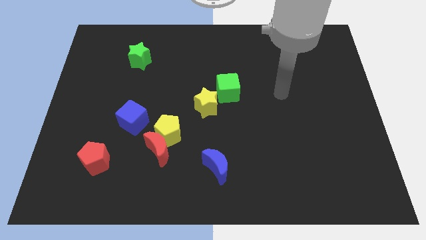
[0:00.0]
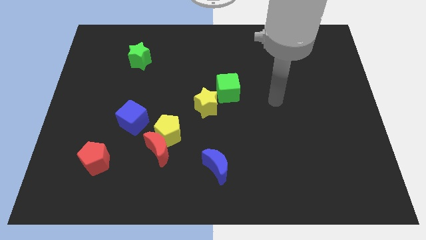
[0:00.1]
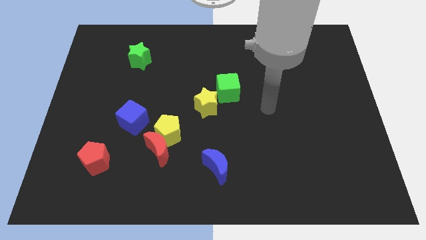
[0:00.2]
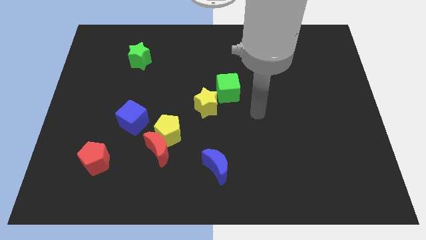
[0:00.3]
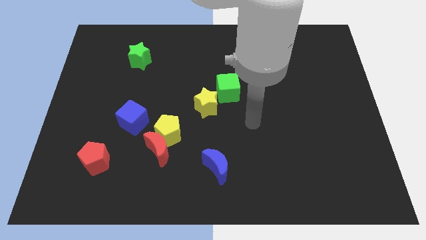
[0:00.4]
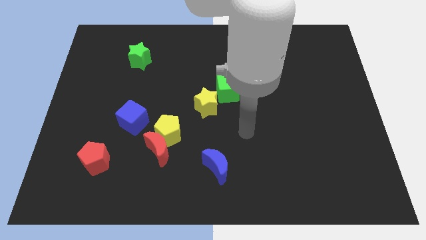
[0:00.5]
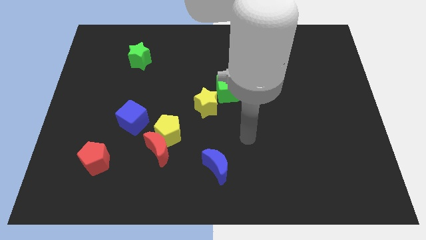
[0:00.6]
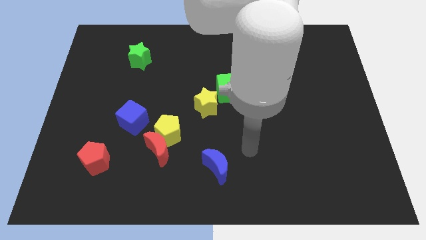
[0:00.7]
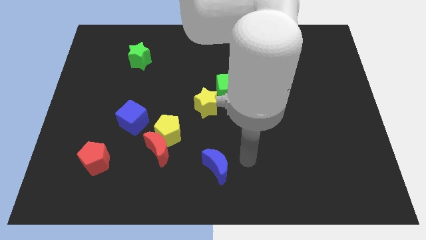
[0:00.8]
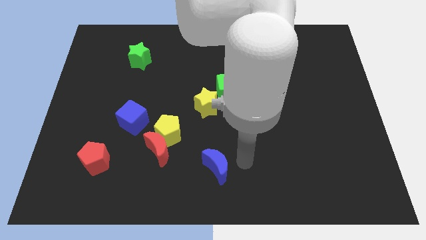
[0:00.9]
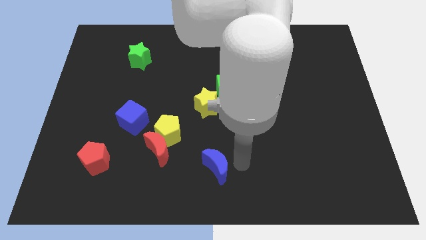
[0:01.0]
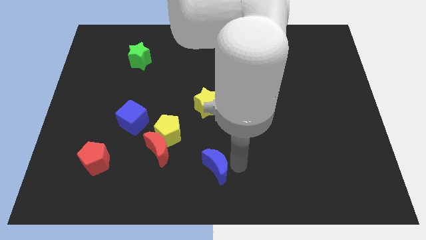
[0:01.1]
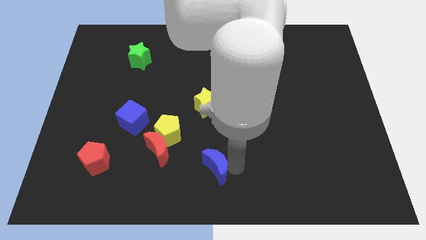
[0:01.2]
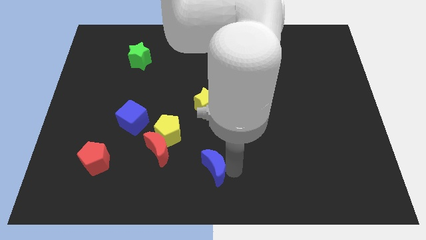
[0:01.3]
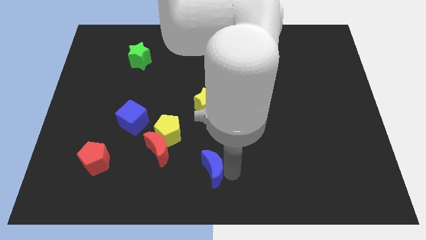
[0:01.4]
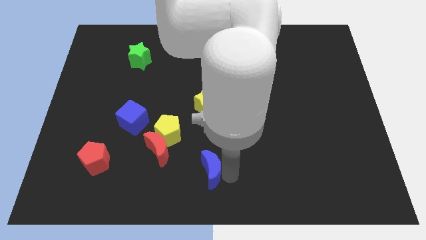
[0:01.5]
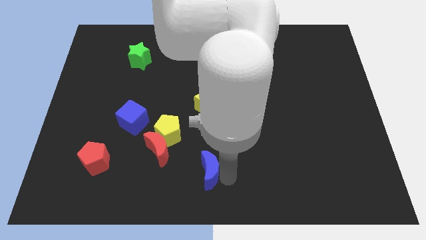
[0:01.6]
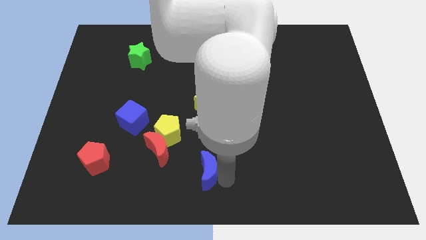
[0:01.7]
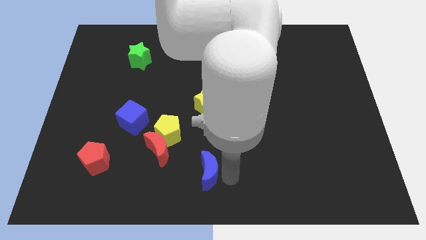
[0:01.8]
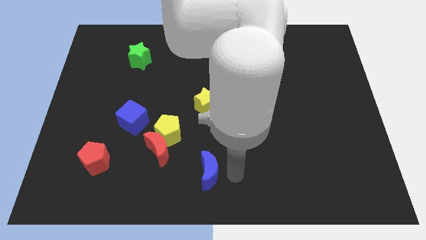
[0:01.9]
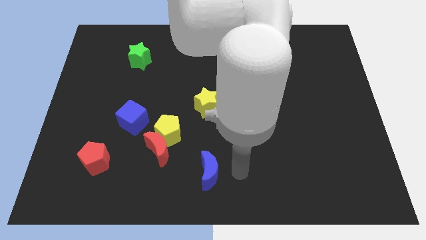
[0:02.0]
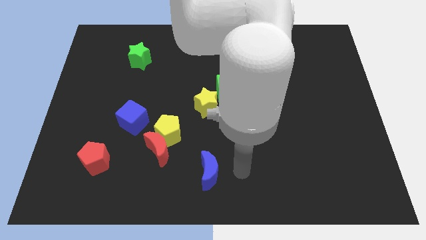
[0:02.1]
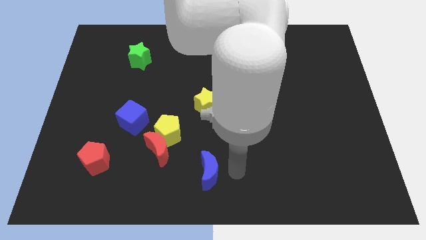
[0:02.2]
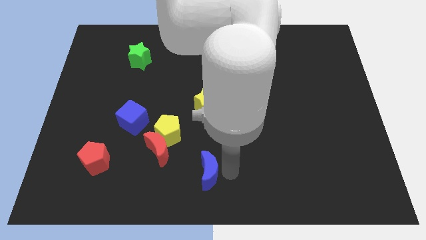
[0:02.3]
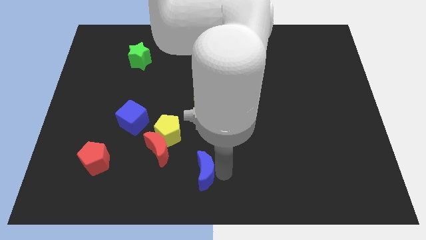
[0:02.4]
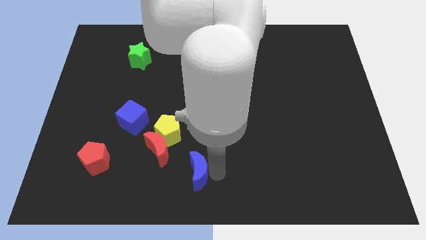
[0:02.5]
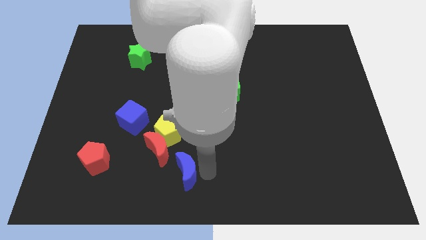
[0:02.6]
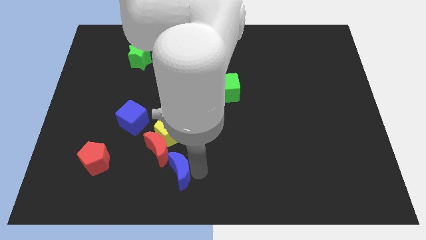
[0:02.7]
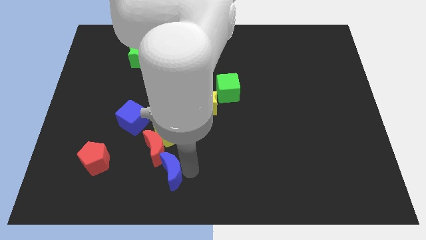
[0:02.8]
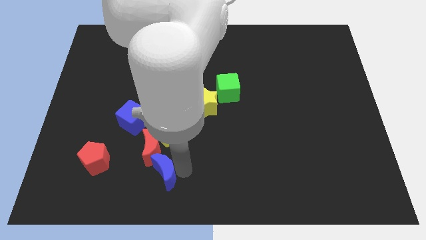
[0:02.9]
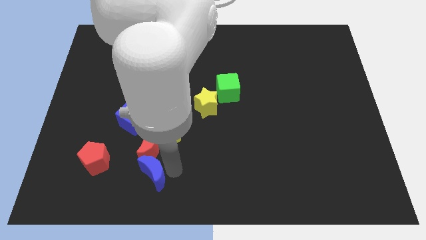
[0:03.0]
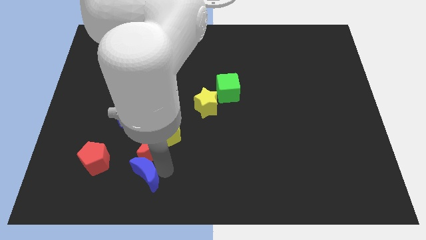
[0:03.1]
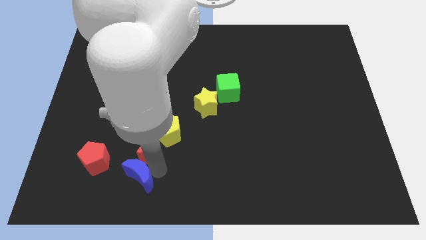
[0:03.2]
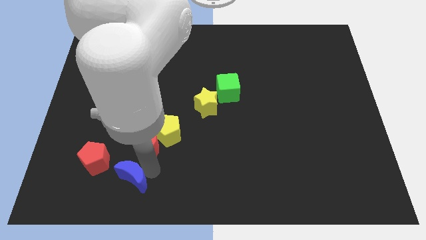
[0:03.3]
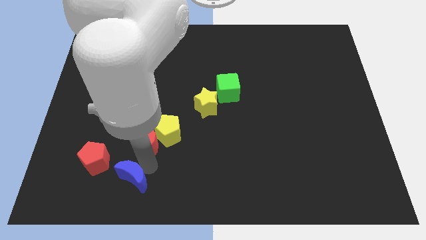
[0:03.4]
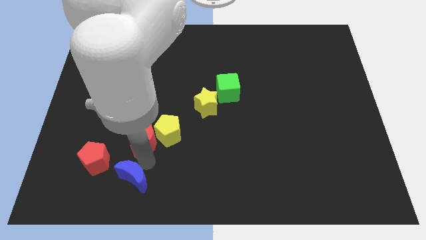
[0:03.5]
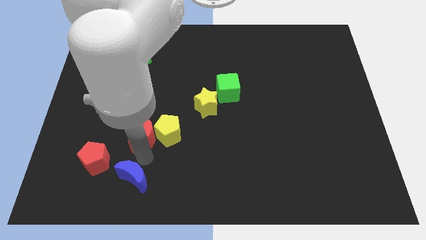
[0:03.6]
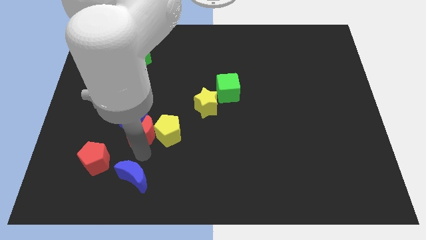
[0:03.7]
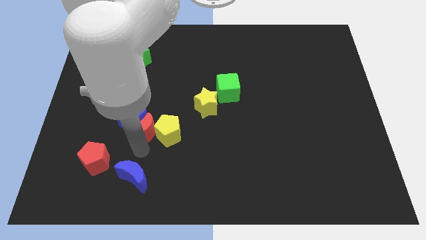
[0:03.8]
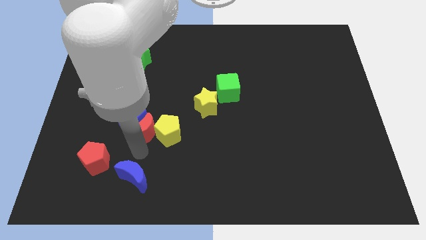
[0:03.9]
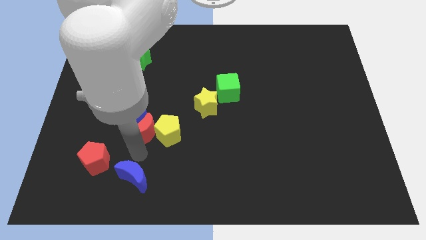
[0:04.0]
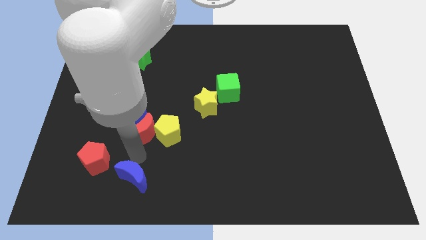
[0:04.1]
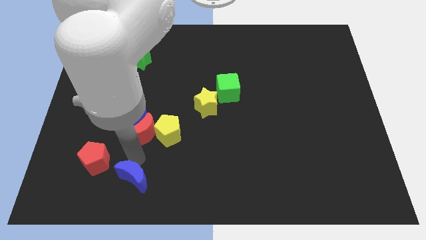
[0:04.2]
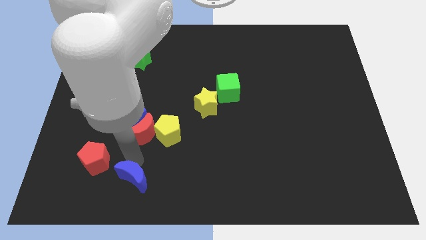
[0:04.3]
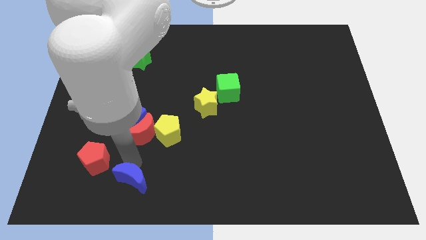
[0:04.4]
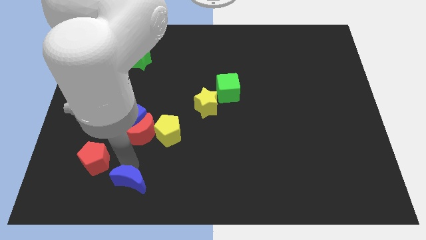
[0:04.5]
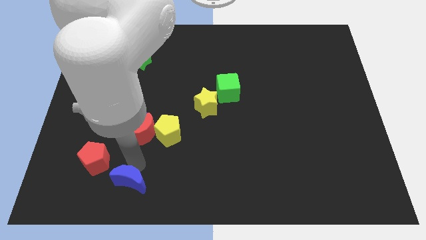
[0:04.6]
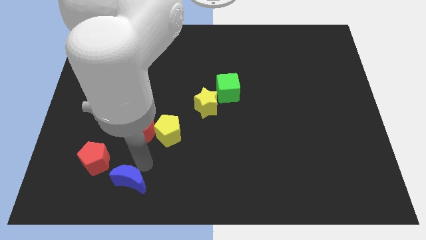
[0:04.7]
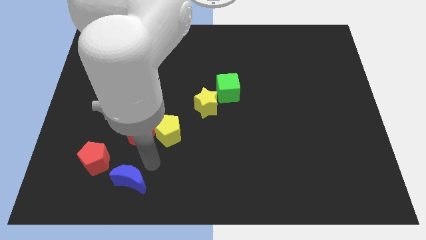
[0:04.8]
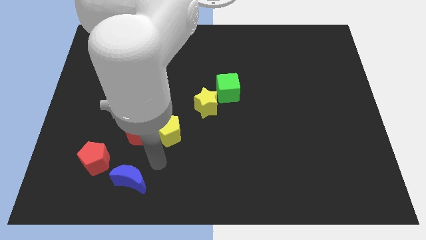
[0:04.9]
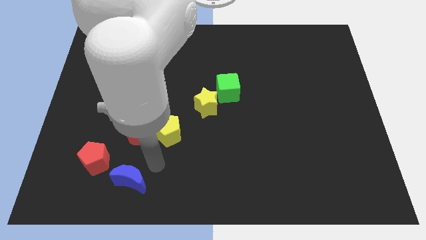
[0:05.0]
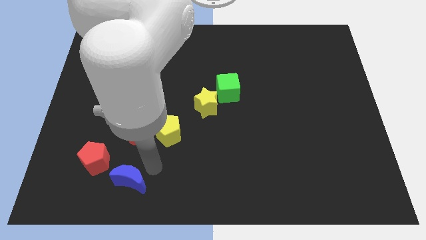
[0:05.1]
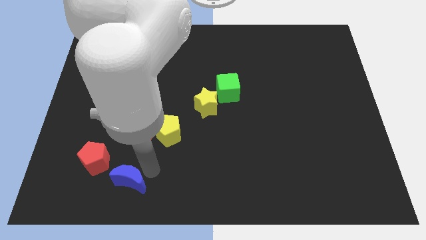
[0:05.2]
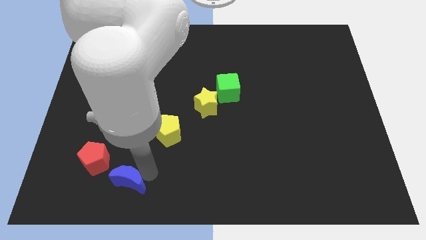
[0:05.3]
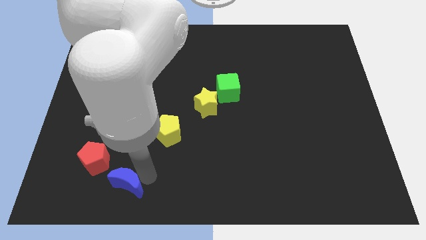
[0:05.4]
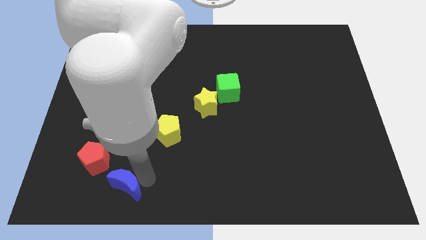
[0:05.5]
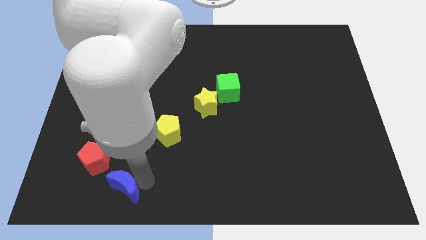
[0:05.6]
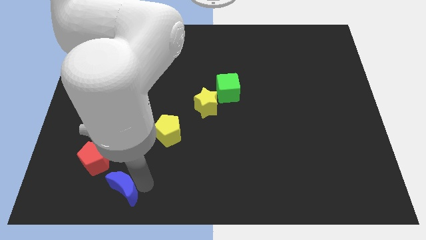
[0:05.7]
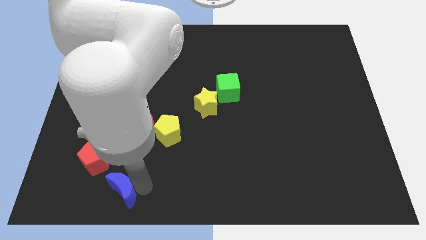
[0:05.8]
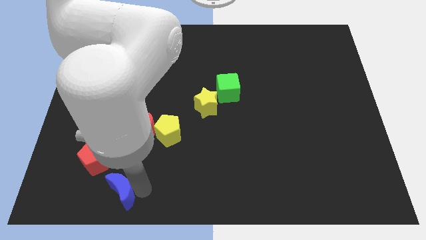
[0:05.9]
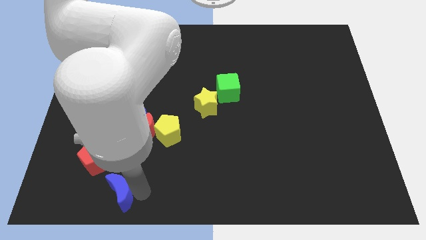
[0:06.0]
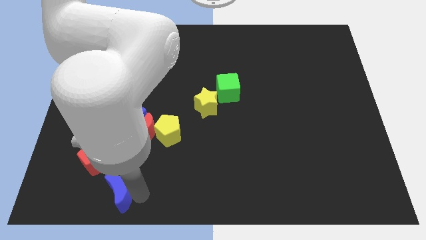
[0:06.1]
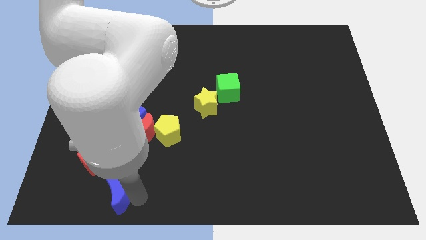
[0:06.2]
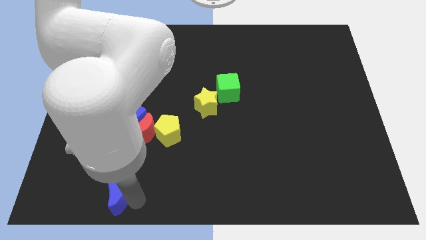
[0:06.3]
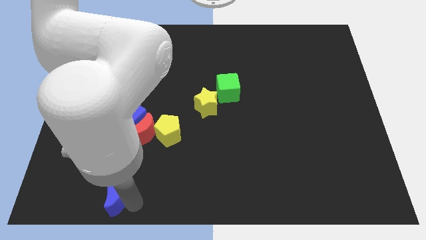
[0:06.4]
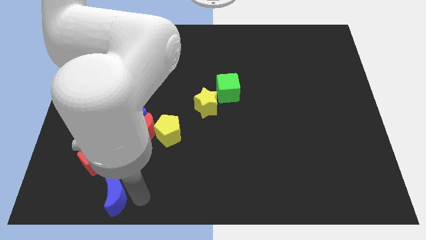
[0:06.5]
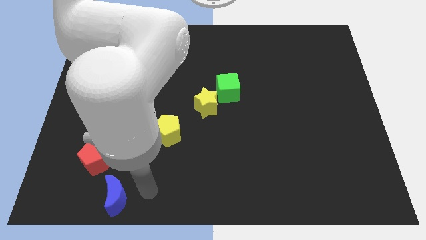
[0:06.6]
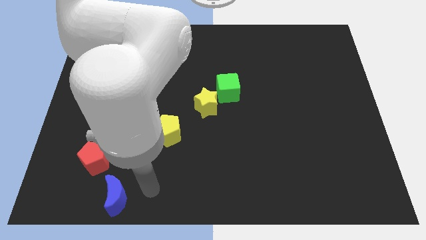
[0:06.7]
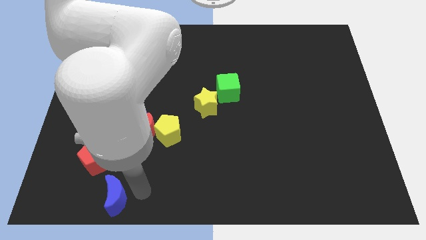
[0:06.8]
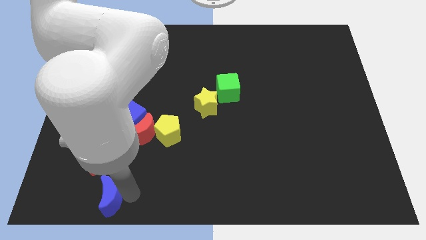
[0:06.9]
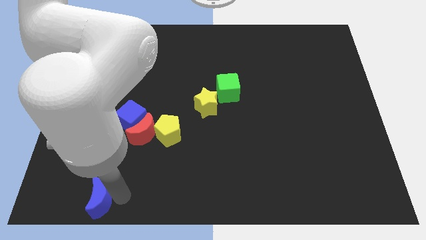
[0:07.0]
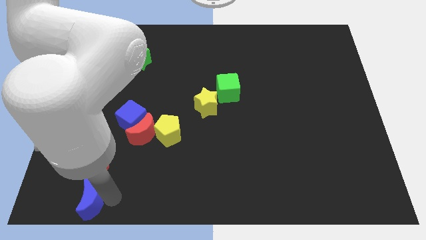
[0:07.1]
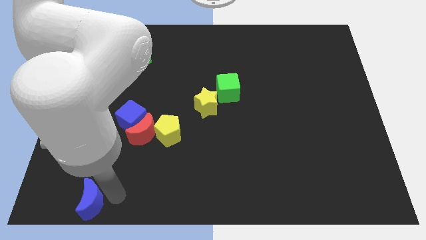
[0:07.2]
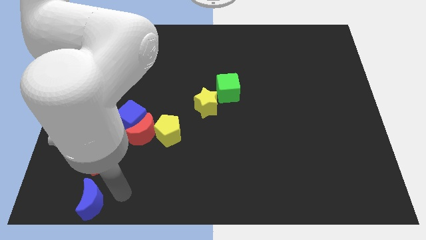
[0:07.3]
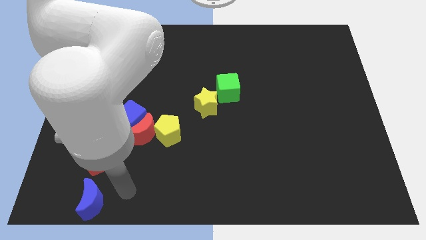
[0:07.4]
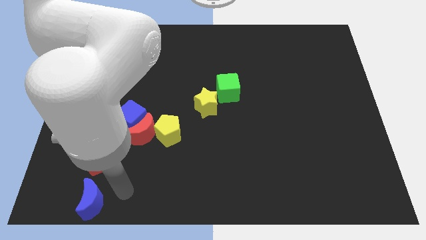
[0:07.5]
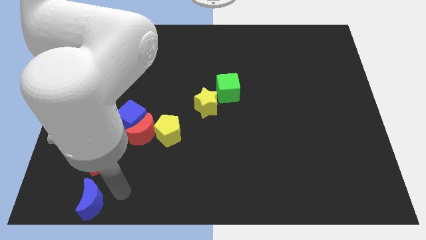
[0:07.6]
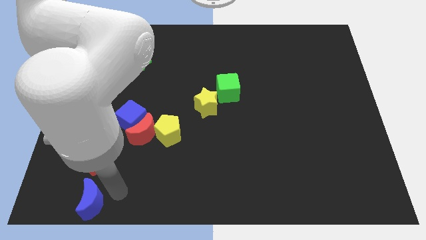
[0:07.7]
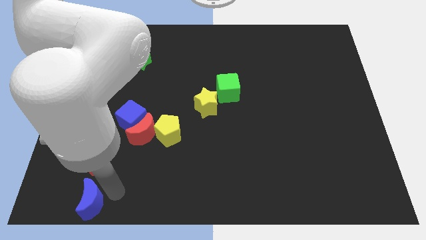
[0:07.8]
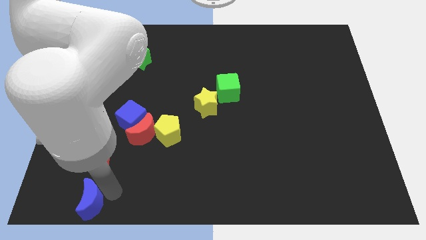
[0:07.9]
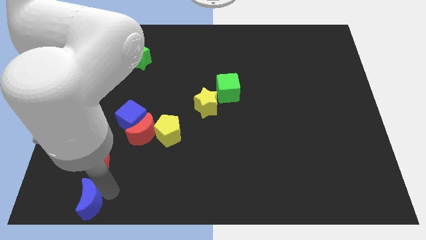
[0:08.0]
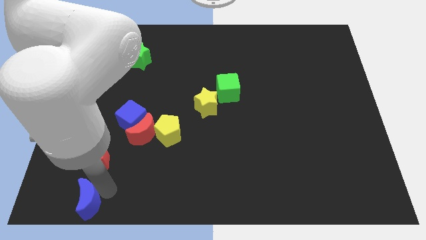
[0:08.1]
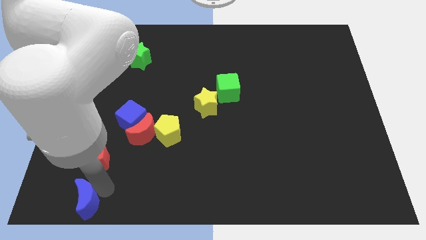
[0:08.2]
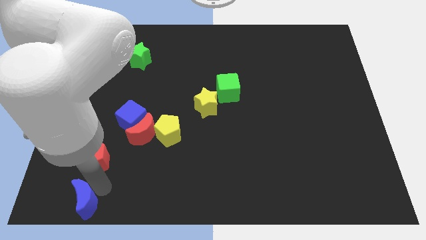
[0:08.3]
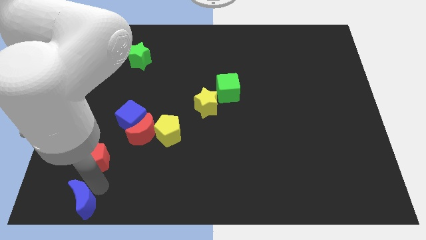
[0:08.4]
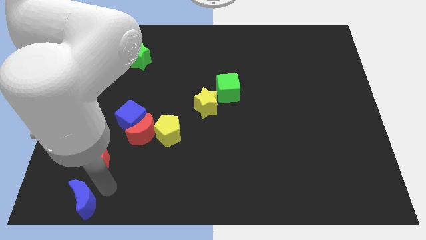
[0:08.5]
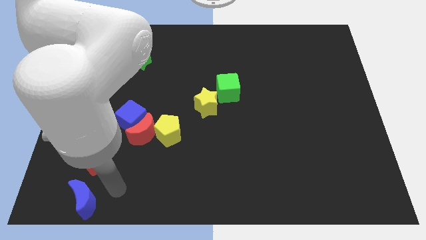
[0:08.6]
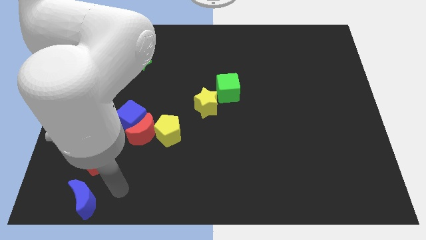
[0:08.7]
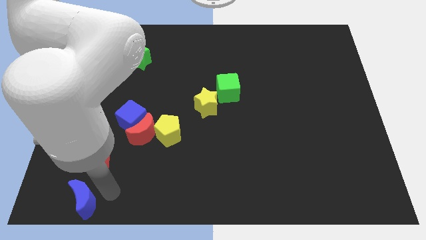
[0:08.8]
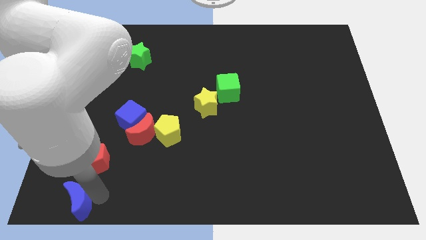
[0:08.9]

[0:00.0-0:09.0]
slide the blue moon to the lower left corner
